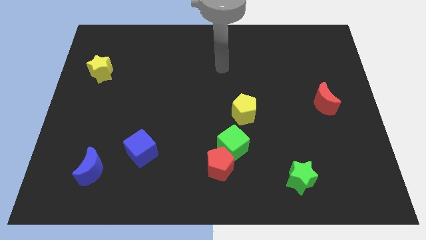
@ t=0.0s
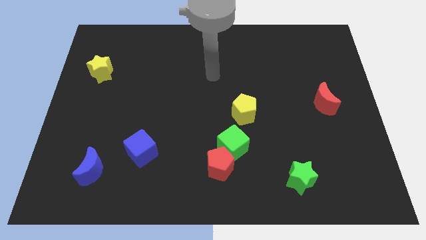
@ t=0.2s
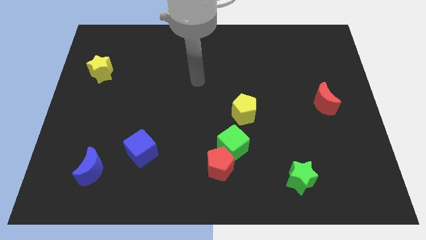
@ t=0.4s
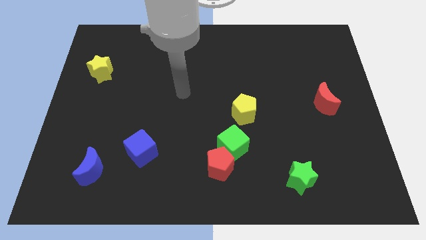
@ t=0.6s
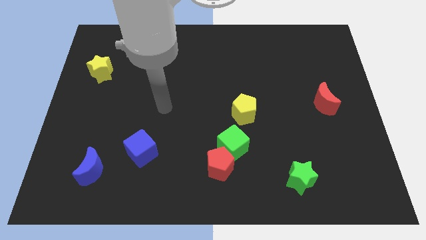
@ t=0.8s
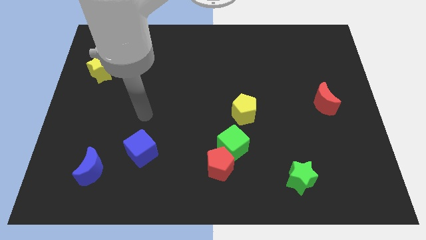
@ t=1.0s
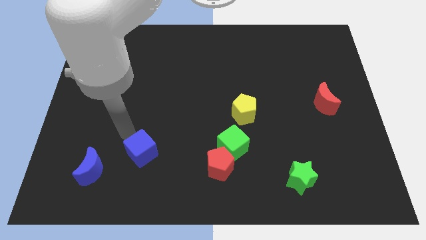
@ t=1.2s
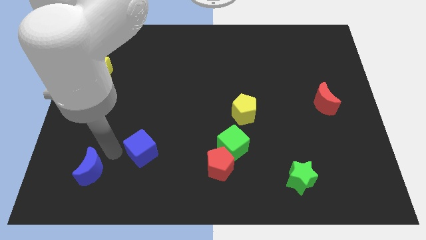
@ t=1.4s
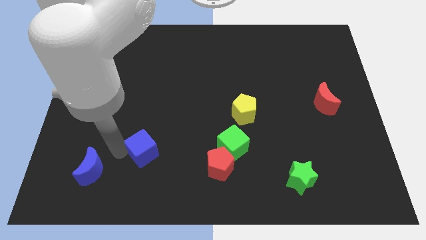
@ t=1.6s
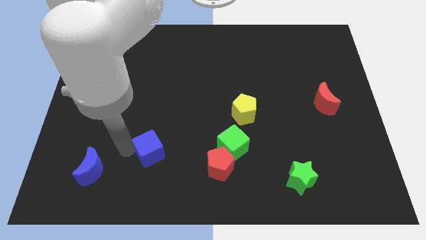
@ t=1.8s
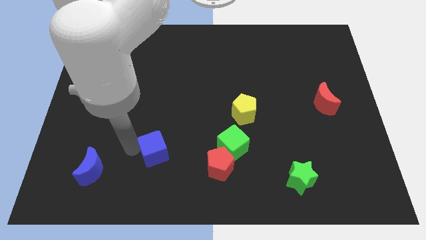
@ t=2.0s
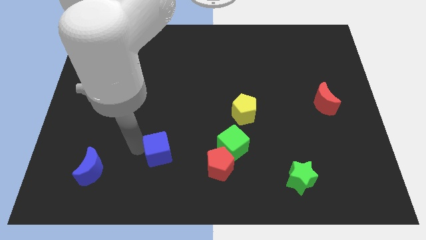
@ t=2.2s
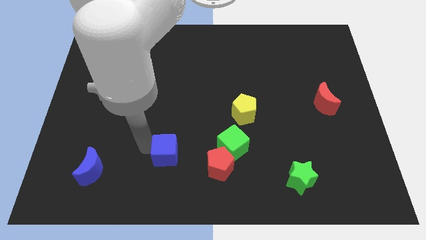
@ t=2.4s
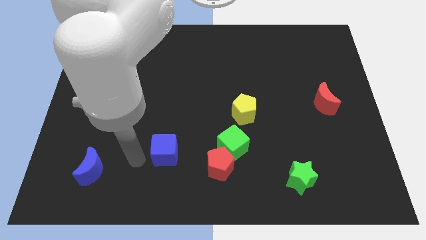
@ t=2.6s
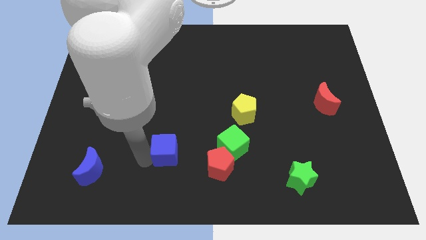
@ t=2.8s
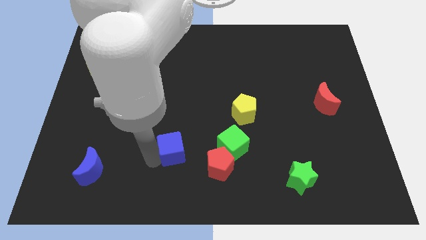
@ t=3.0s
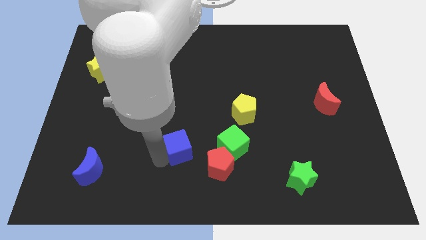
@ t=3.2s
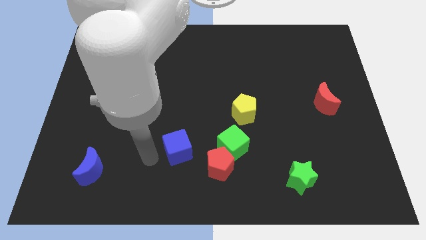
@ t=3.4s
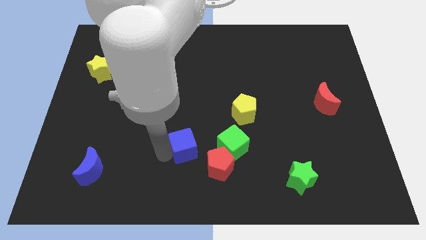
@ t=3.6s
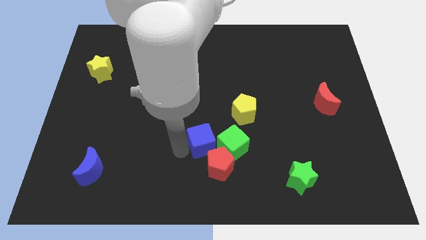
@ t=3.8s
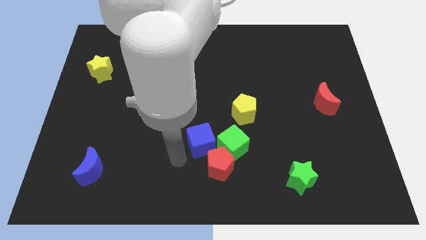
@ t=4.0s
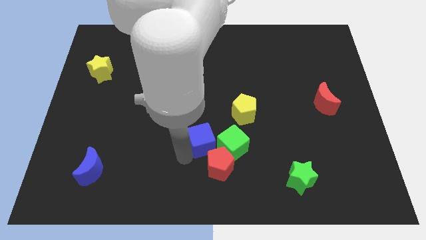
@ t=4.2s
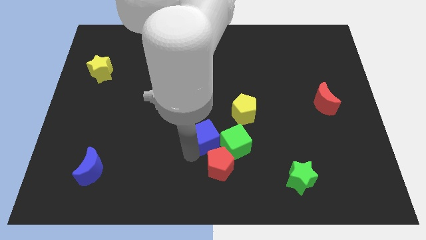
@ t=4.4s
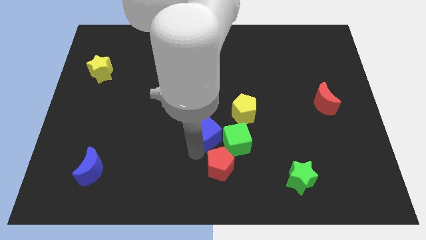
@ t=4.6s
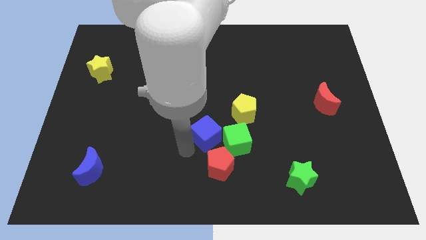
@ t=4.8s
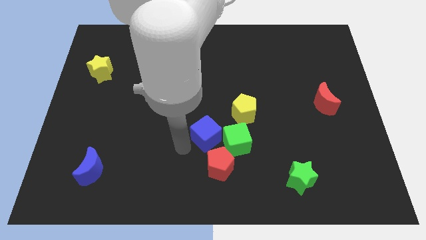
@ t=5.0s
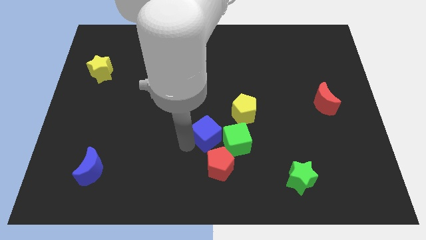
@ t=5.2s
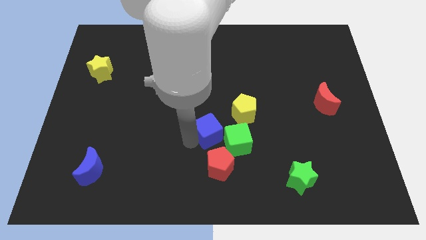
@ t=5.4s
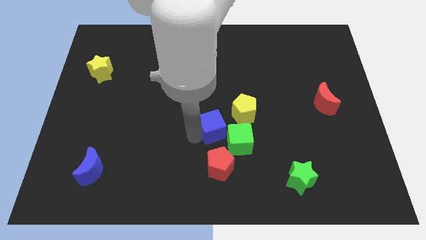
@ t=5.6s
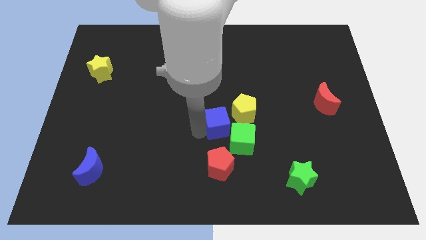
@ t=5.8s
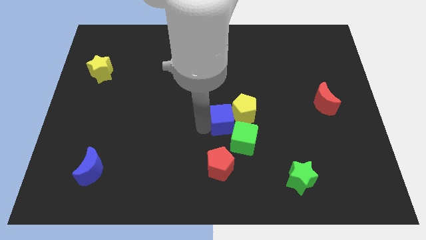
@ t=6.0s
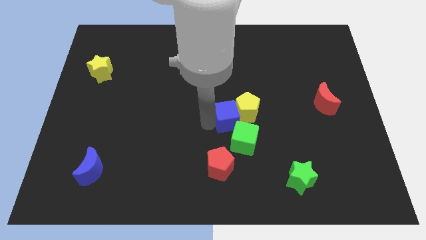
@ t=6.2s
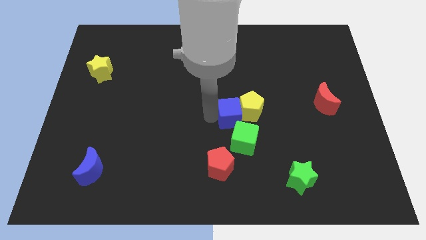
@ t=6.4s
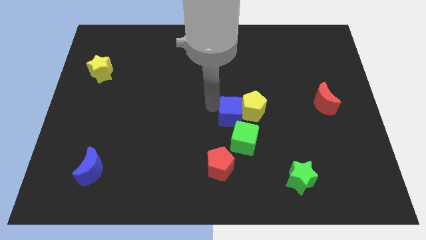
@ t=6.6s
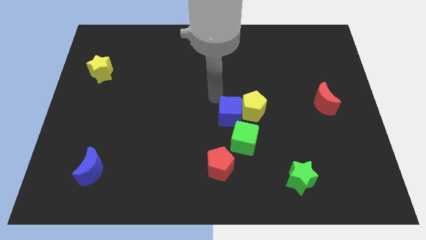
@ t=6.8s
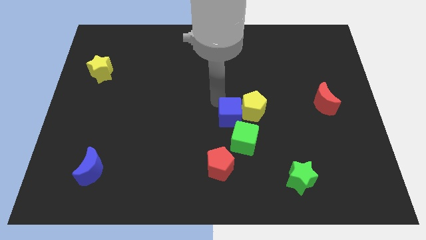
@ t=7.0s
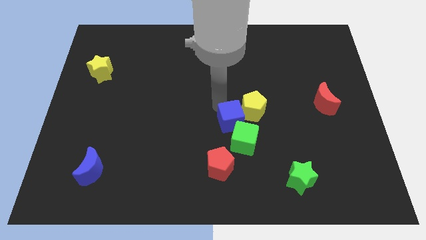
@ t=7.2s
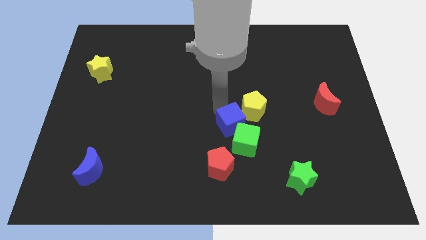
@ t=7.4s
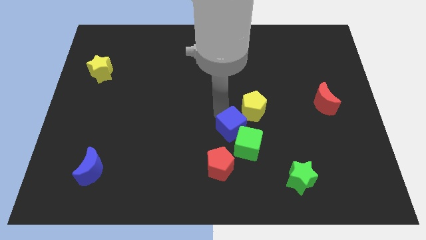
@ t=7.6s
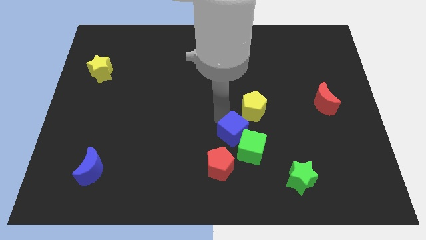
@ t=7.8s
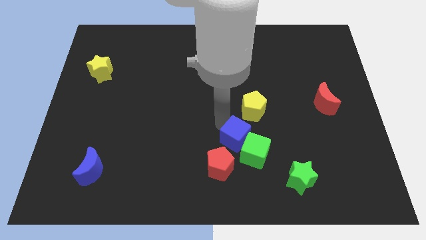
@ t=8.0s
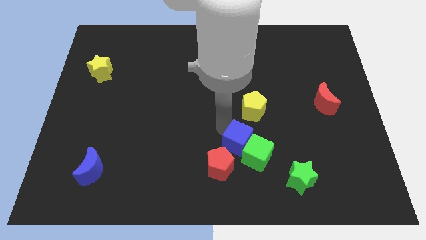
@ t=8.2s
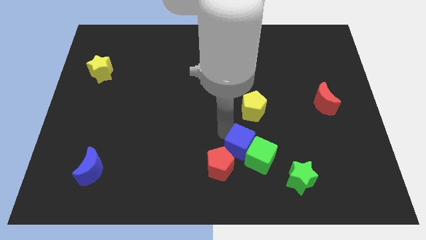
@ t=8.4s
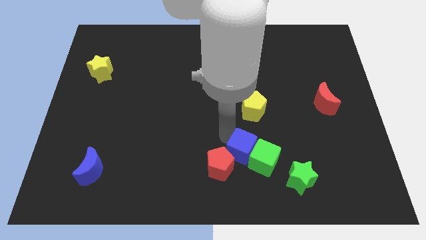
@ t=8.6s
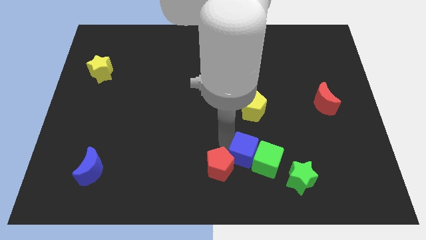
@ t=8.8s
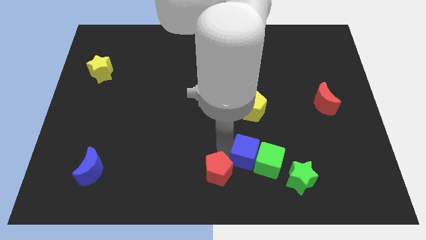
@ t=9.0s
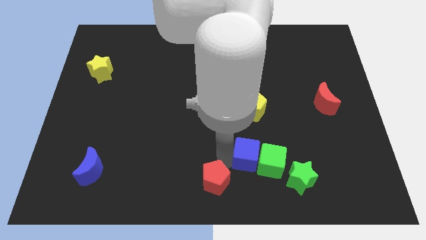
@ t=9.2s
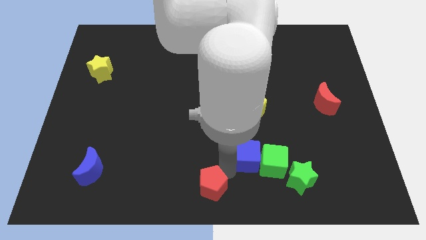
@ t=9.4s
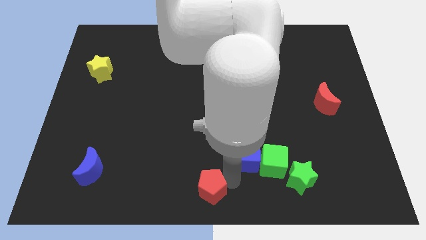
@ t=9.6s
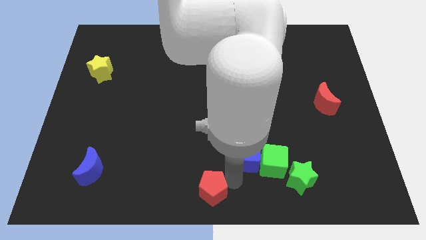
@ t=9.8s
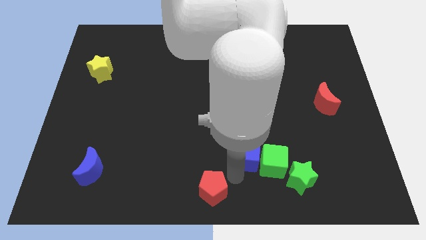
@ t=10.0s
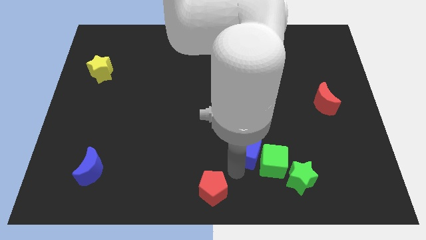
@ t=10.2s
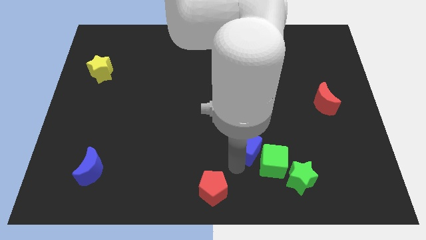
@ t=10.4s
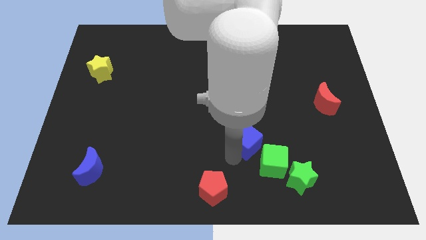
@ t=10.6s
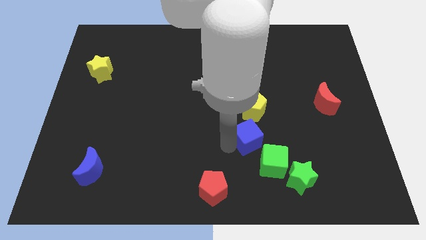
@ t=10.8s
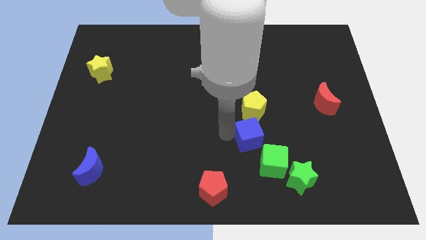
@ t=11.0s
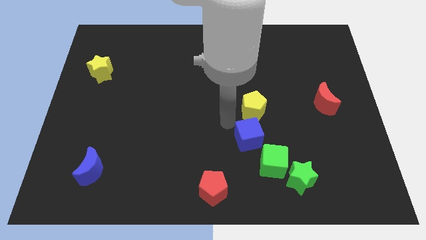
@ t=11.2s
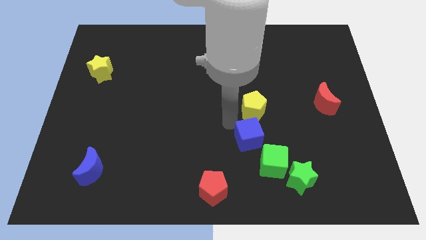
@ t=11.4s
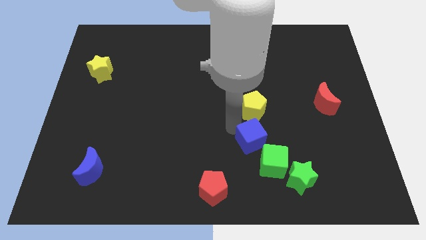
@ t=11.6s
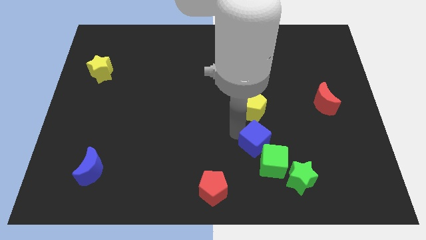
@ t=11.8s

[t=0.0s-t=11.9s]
put the blue cube diagonally up and to the left of the green star

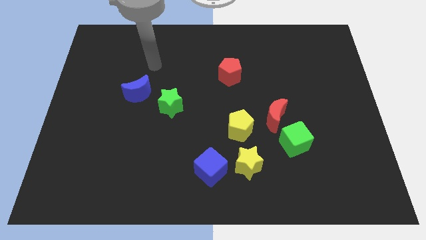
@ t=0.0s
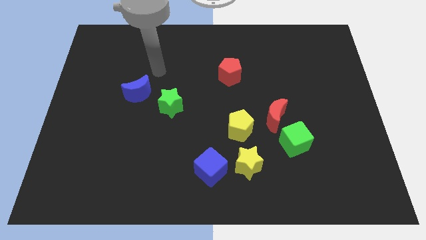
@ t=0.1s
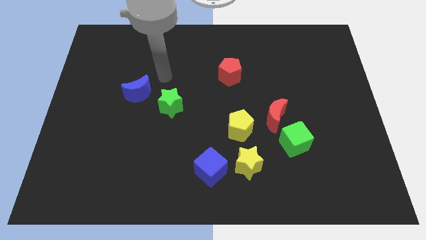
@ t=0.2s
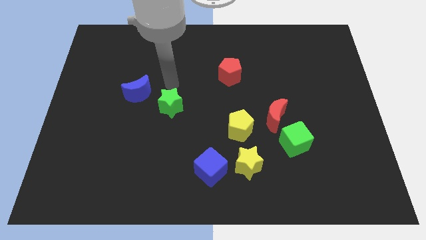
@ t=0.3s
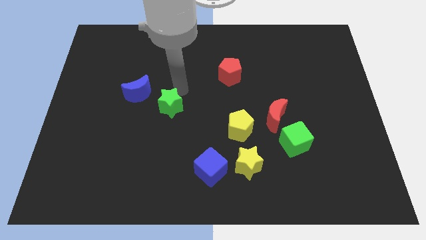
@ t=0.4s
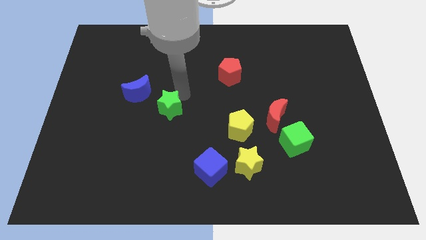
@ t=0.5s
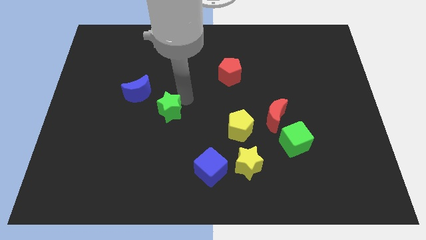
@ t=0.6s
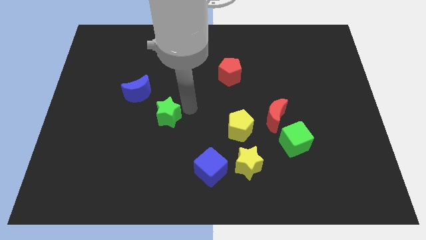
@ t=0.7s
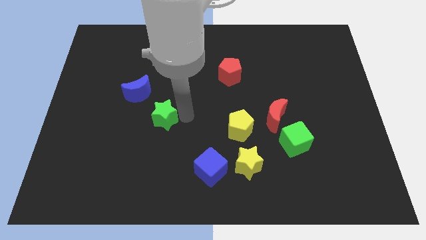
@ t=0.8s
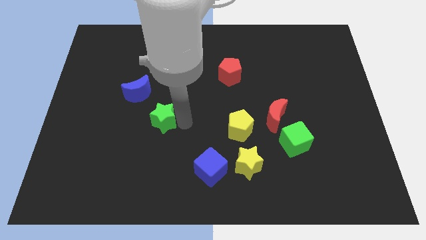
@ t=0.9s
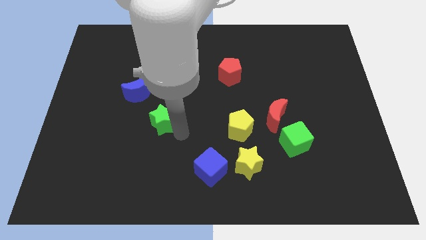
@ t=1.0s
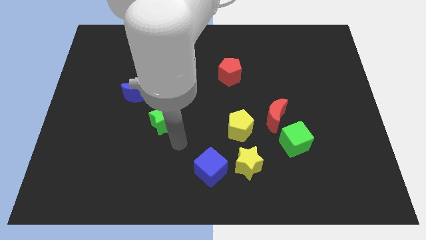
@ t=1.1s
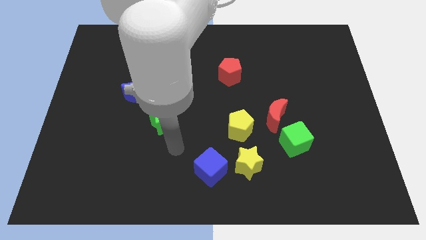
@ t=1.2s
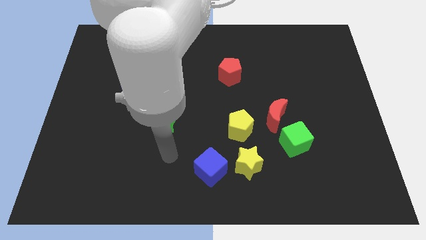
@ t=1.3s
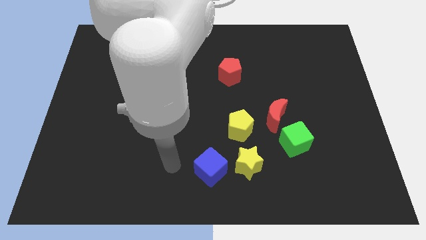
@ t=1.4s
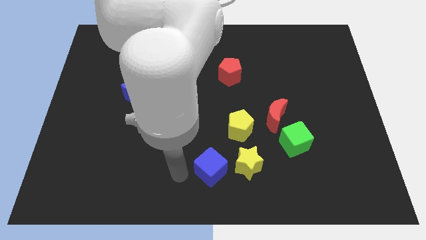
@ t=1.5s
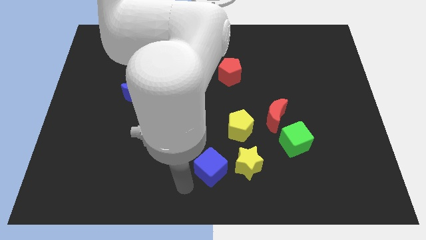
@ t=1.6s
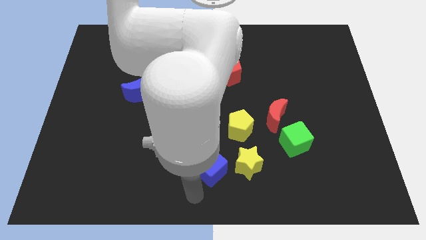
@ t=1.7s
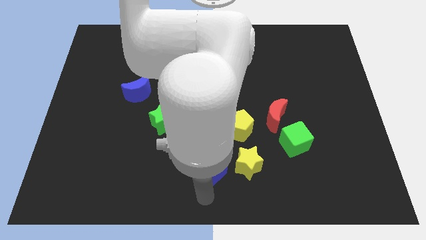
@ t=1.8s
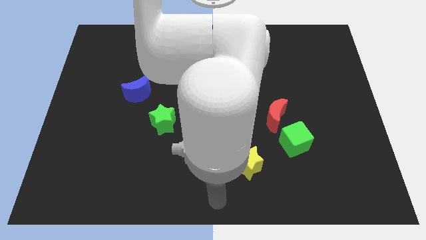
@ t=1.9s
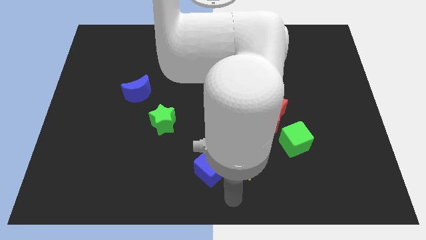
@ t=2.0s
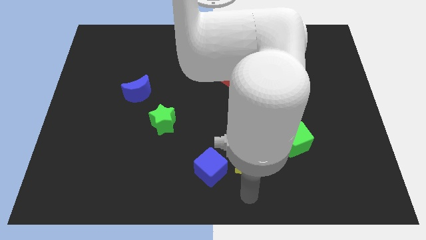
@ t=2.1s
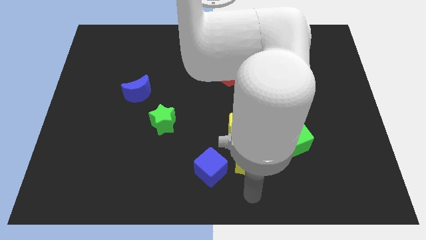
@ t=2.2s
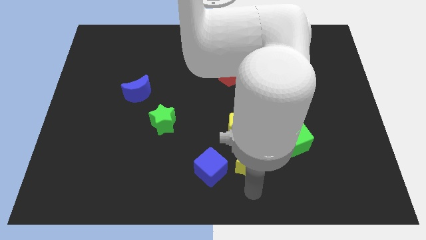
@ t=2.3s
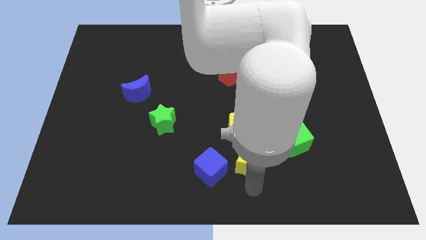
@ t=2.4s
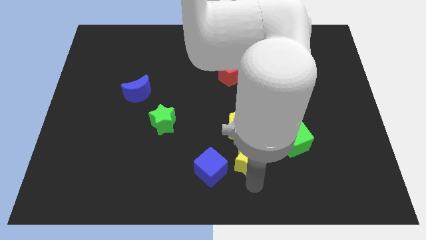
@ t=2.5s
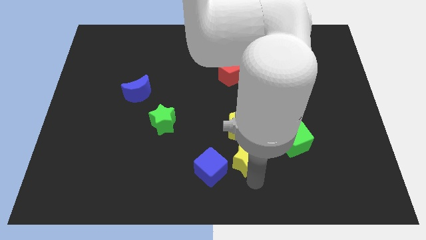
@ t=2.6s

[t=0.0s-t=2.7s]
slide the yellow star to the left of the green cube
